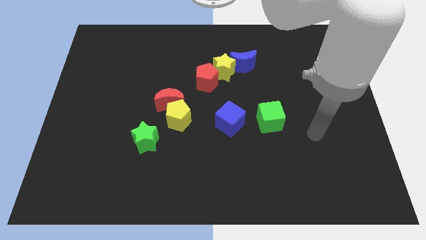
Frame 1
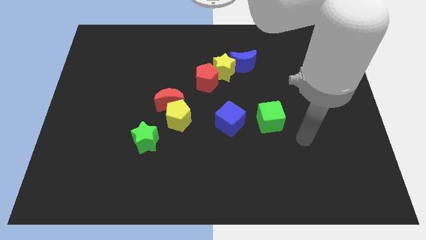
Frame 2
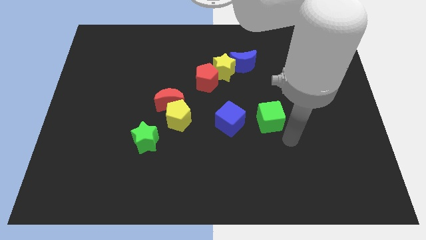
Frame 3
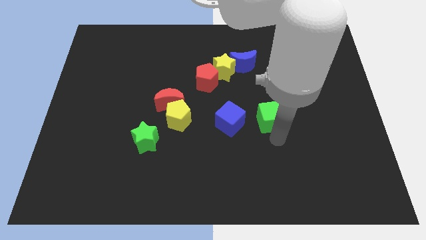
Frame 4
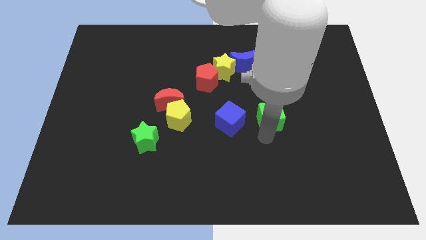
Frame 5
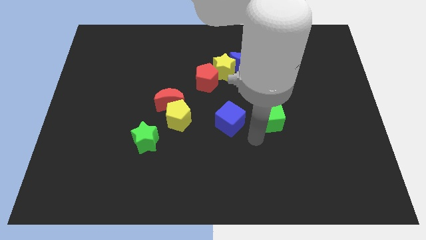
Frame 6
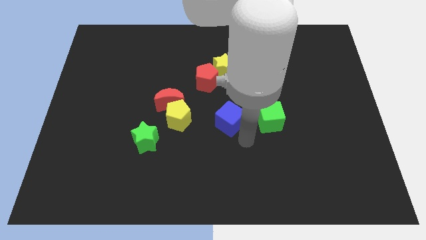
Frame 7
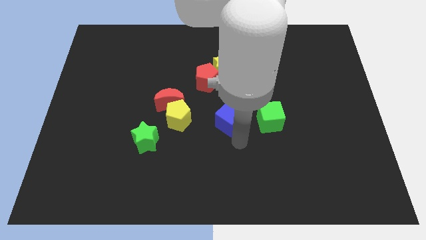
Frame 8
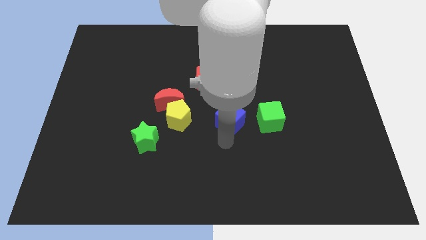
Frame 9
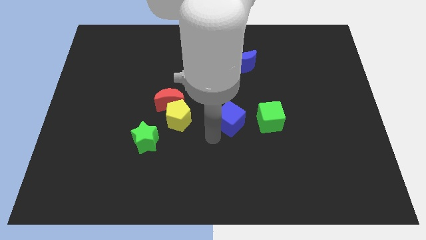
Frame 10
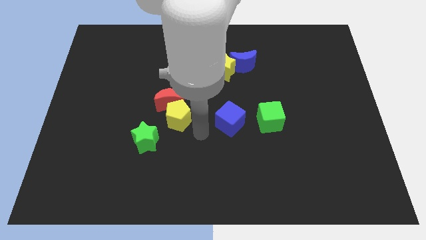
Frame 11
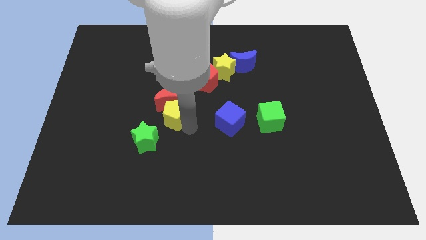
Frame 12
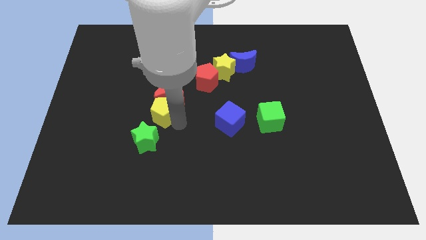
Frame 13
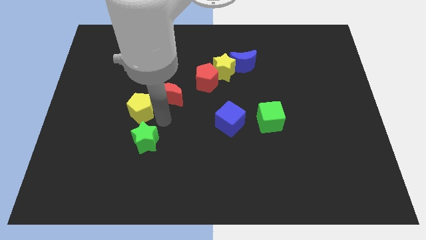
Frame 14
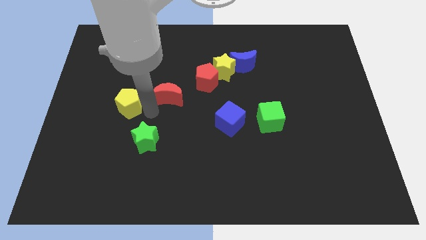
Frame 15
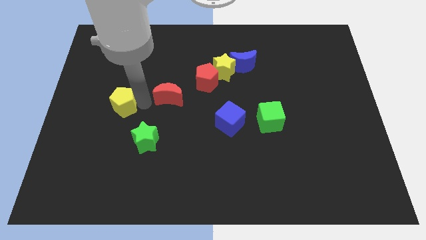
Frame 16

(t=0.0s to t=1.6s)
move the red moon away from the yellow pentagon

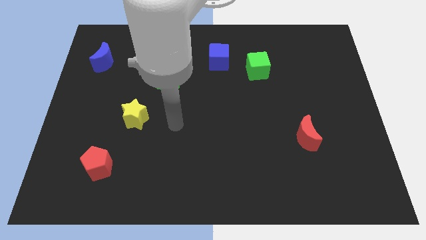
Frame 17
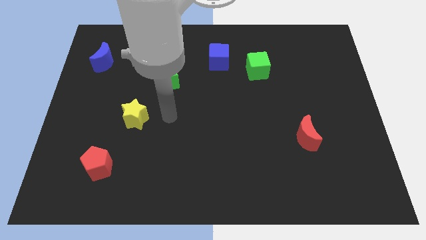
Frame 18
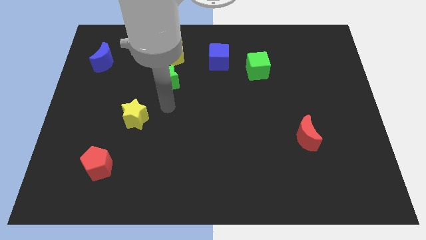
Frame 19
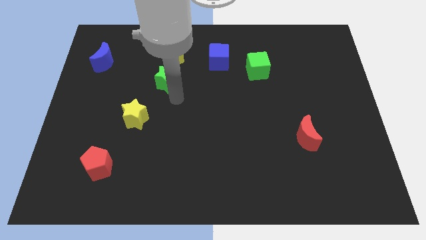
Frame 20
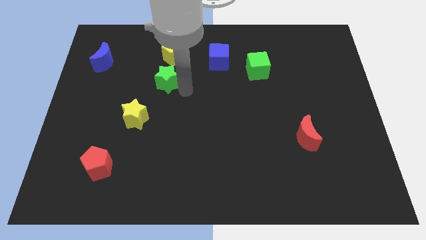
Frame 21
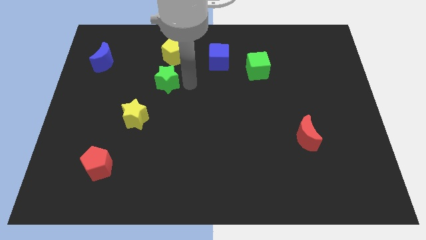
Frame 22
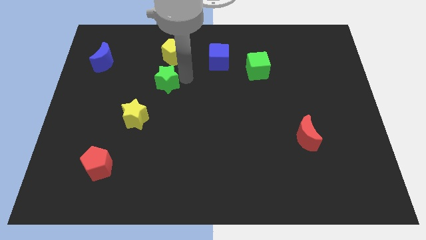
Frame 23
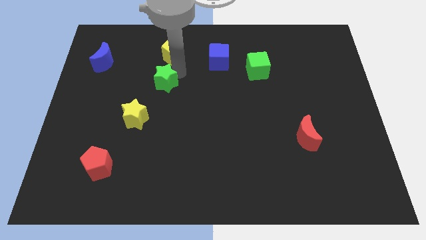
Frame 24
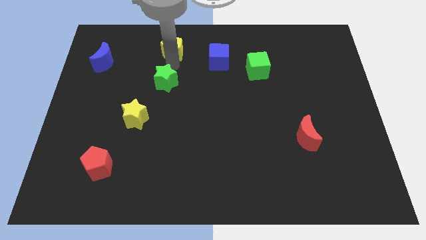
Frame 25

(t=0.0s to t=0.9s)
separate the green star from the yellow pentagon

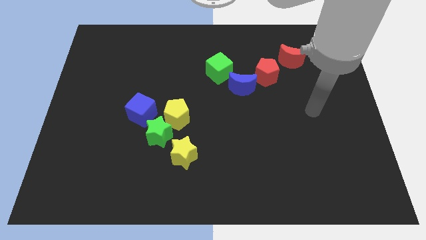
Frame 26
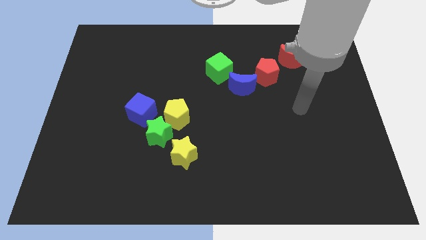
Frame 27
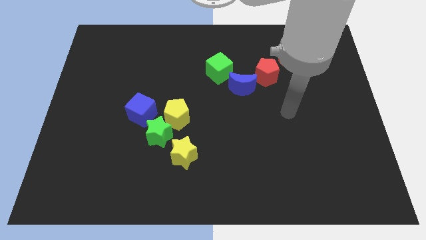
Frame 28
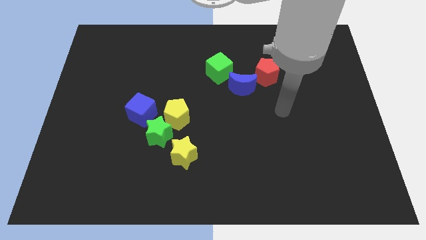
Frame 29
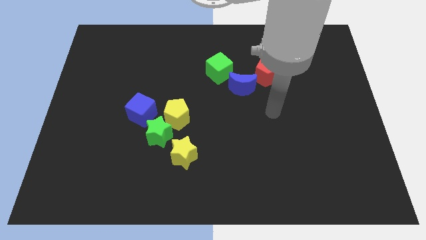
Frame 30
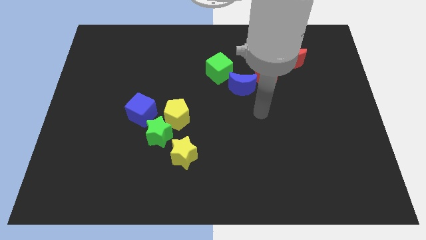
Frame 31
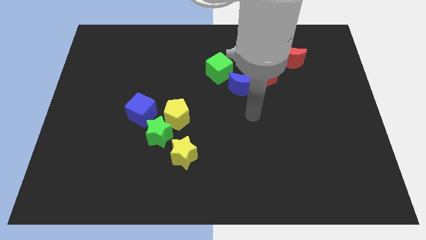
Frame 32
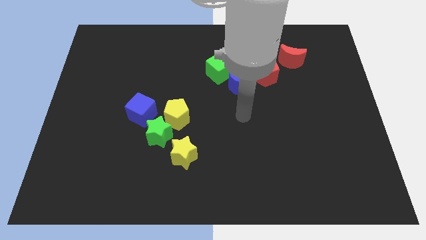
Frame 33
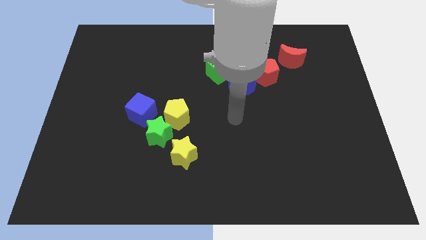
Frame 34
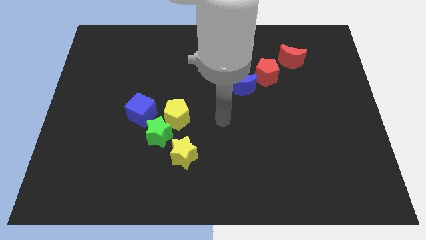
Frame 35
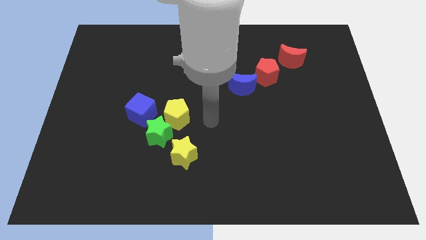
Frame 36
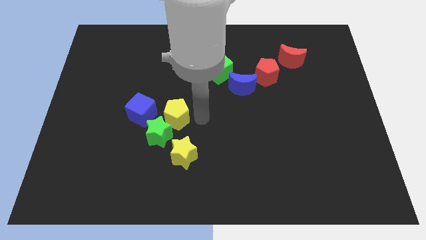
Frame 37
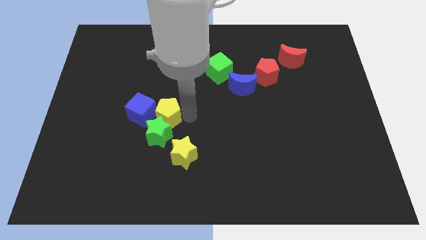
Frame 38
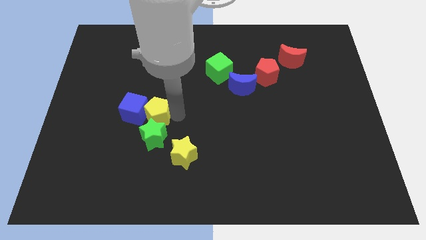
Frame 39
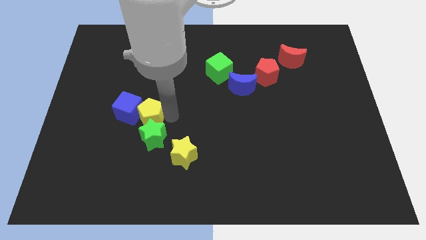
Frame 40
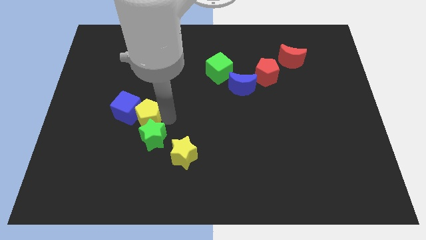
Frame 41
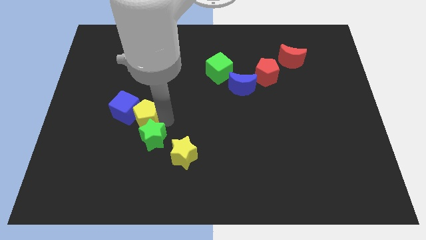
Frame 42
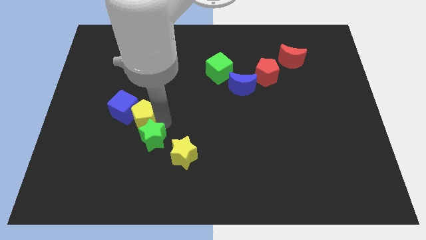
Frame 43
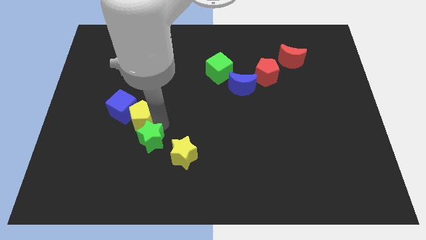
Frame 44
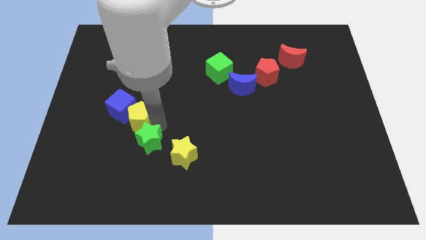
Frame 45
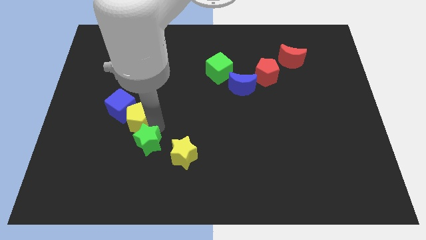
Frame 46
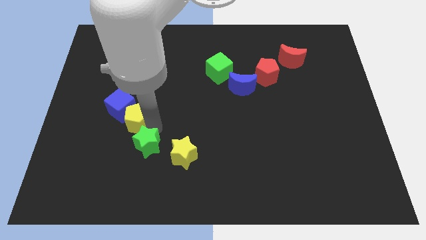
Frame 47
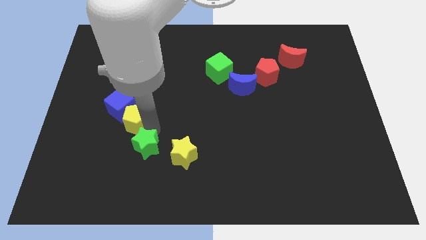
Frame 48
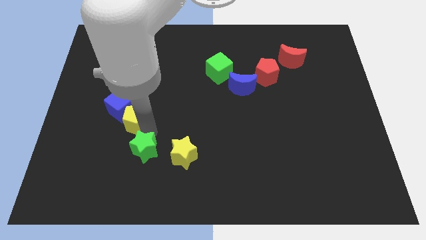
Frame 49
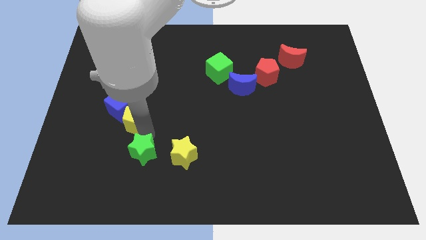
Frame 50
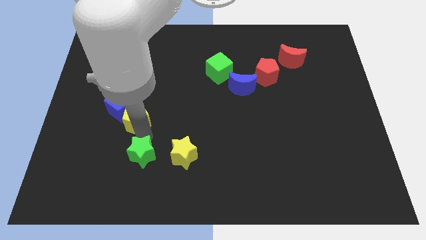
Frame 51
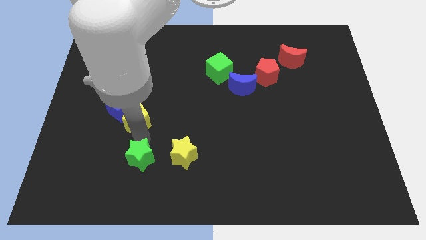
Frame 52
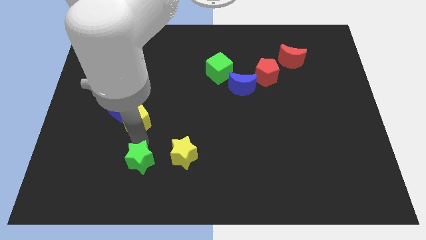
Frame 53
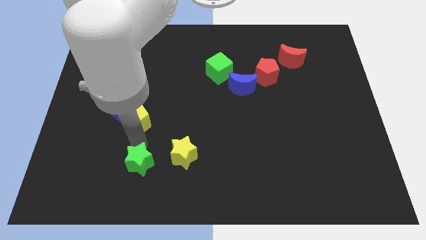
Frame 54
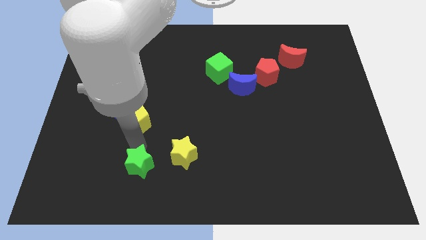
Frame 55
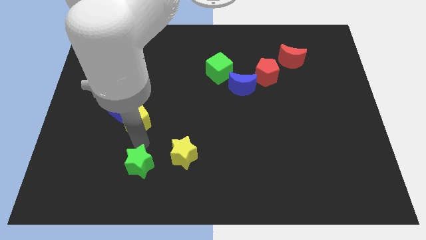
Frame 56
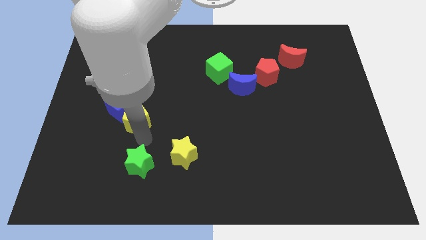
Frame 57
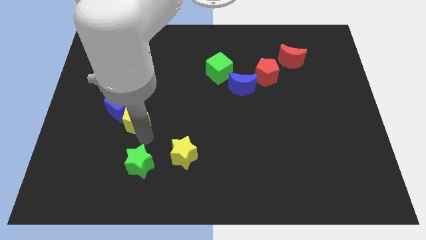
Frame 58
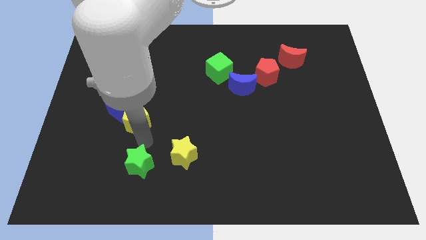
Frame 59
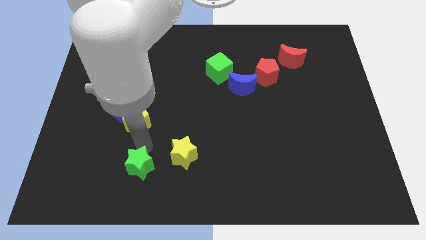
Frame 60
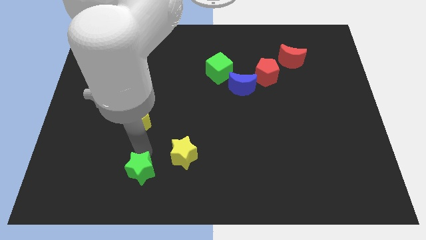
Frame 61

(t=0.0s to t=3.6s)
move the green star away from the yellow pentagon, yellow star, and blue cube

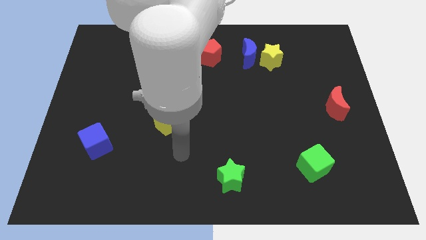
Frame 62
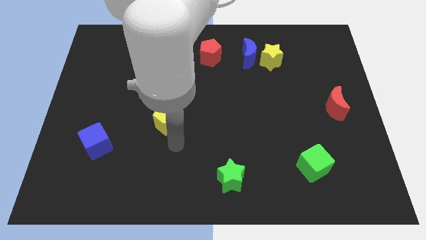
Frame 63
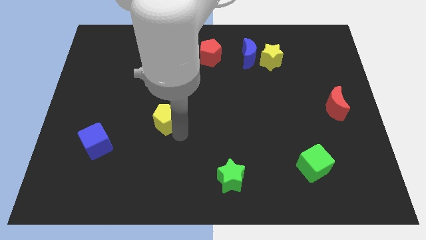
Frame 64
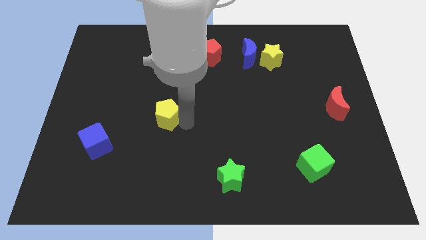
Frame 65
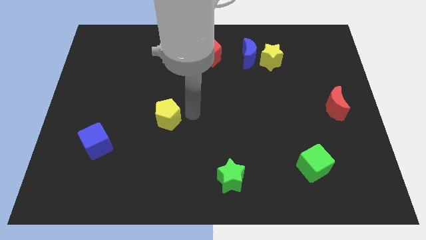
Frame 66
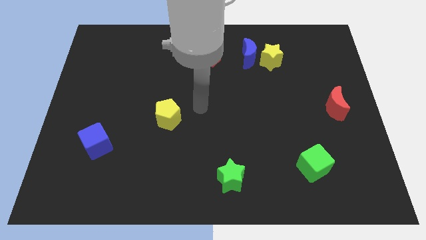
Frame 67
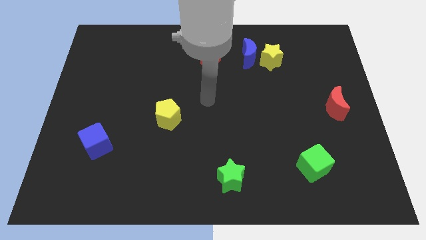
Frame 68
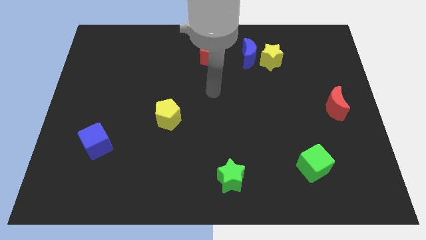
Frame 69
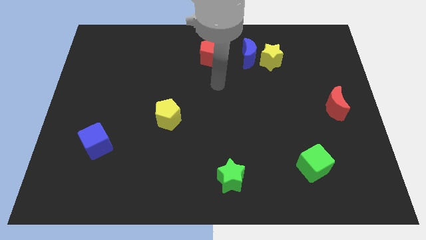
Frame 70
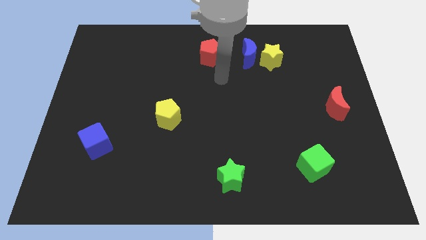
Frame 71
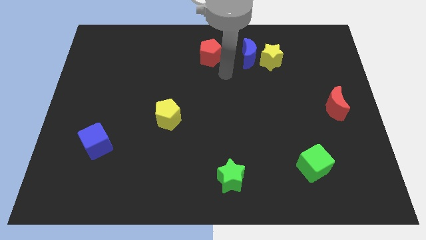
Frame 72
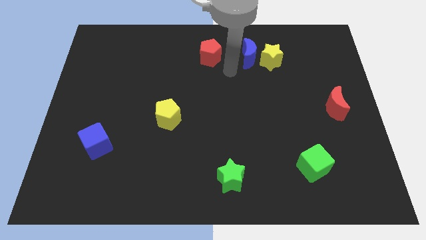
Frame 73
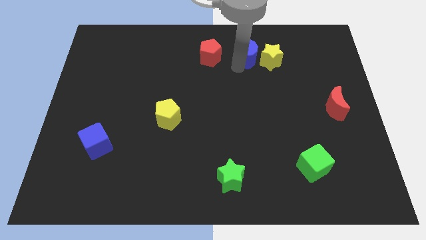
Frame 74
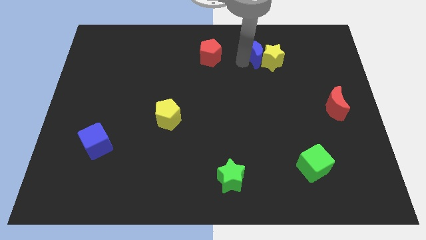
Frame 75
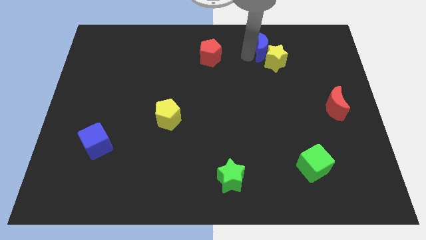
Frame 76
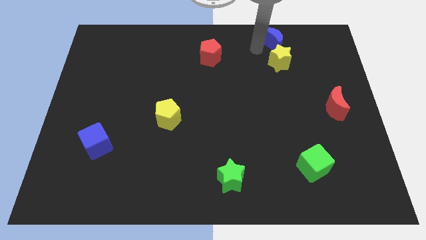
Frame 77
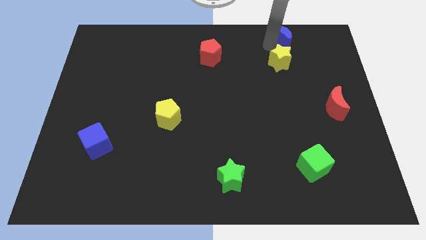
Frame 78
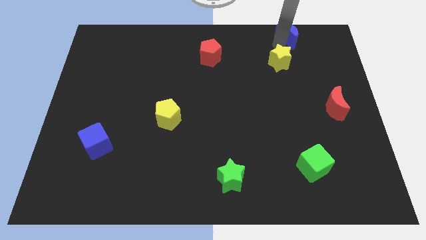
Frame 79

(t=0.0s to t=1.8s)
move the yellow star away from the blue moon

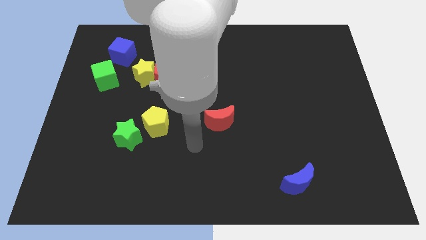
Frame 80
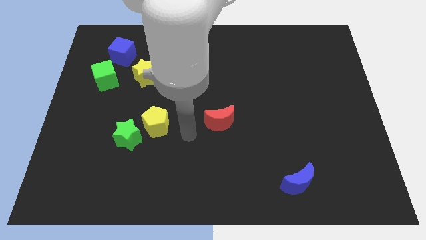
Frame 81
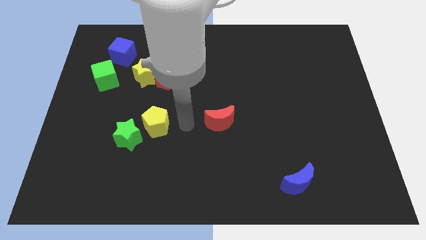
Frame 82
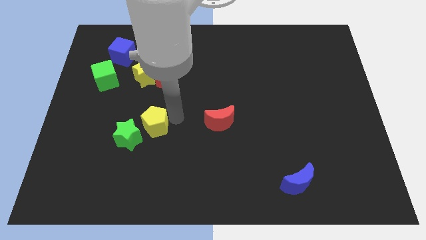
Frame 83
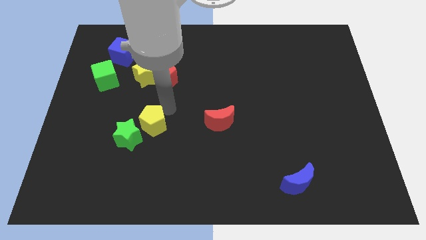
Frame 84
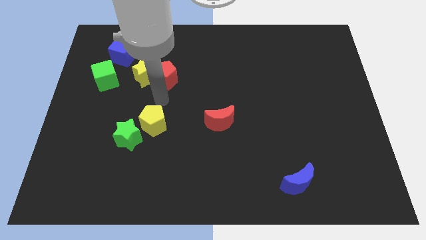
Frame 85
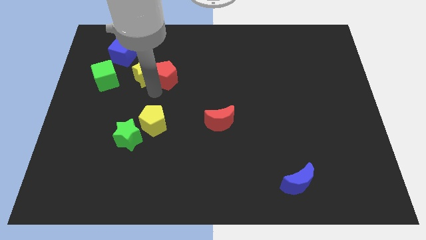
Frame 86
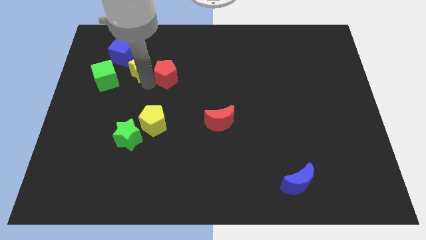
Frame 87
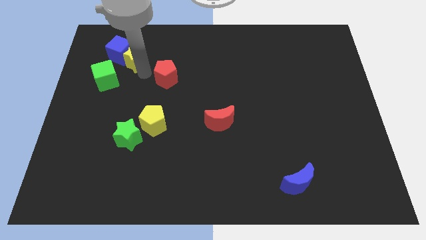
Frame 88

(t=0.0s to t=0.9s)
move the red pentagon away from the yellow star

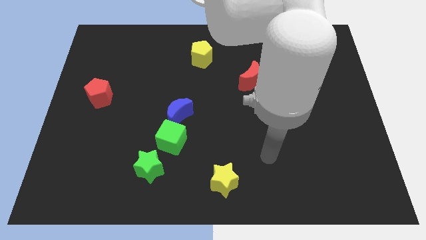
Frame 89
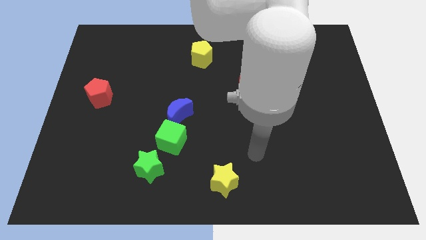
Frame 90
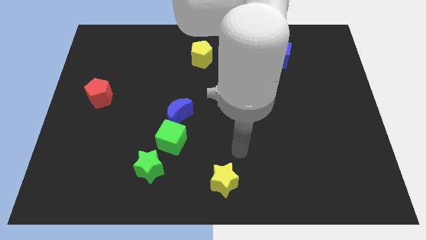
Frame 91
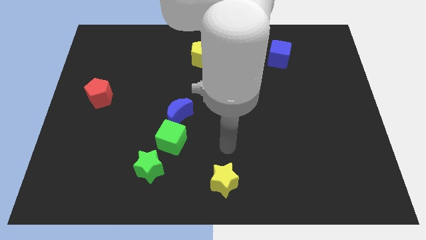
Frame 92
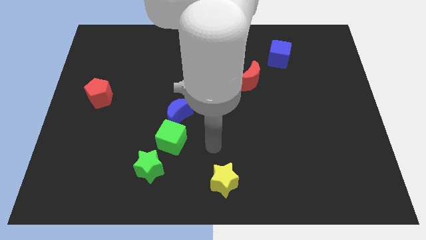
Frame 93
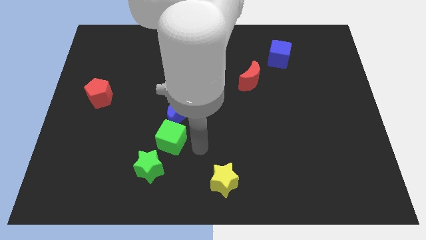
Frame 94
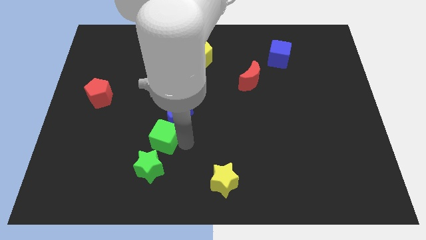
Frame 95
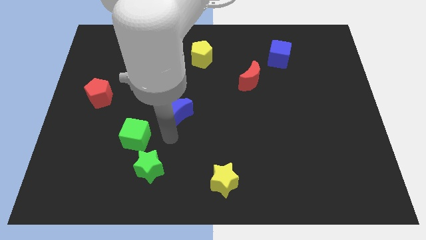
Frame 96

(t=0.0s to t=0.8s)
pull the blue moon apart from the green cube
